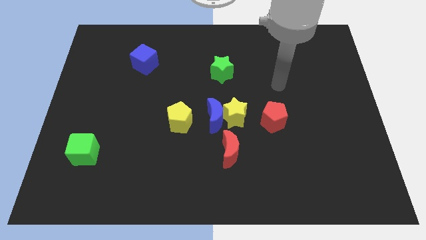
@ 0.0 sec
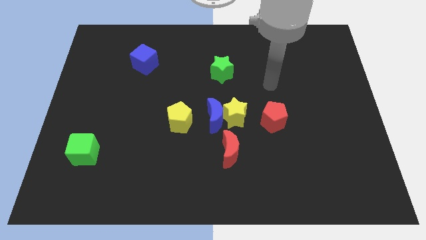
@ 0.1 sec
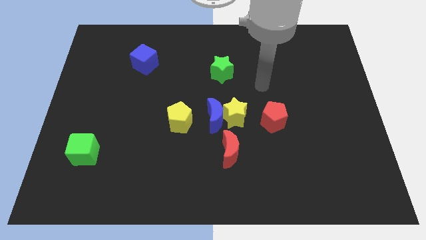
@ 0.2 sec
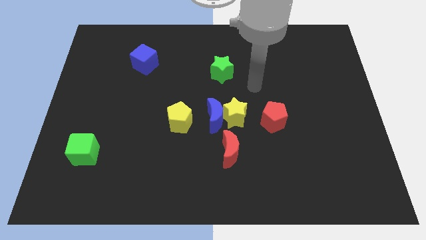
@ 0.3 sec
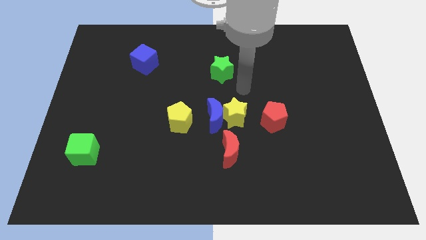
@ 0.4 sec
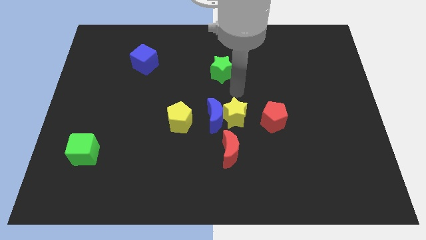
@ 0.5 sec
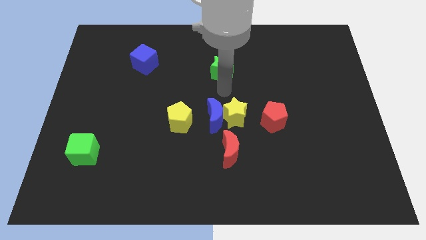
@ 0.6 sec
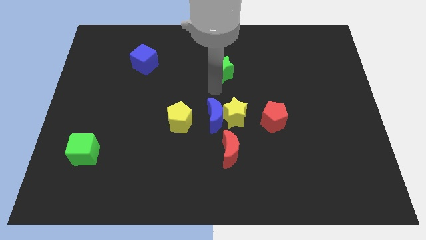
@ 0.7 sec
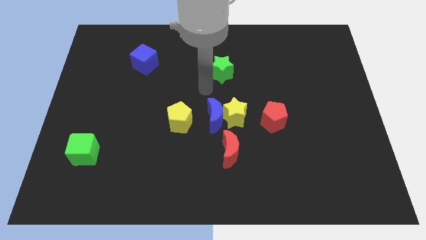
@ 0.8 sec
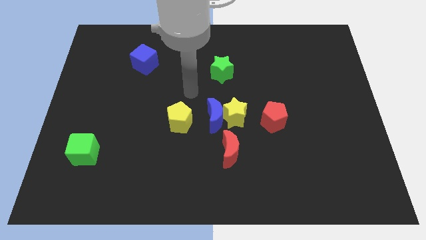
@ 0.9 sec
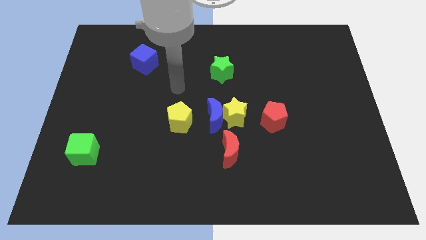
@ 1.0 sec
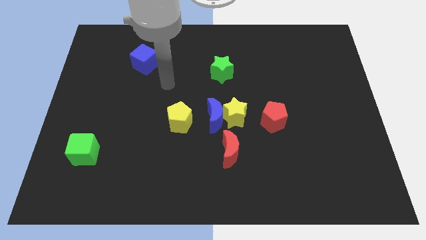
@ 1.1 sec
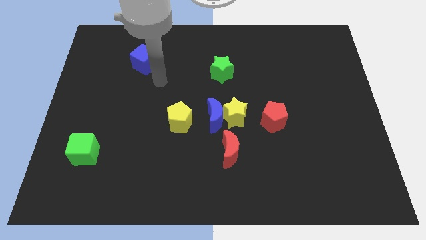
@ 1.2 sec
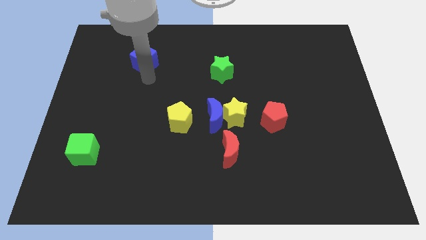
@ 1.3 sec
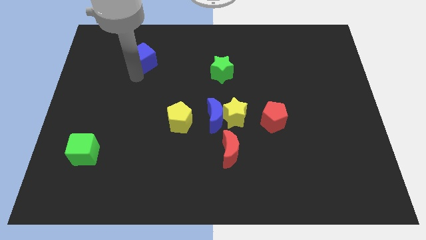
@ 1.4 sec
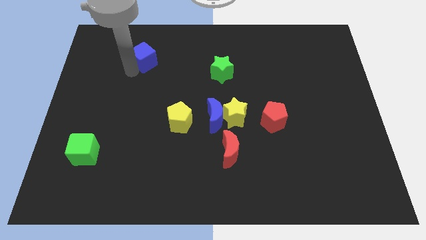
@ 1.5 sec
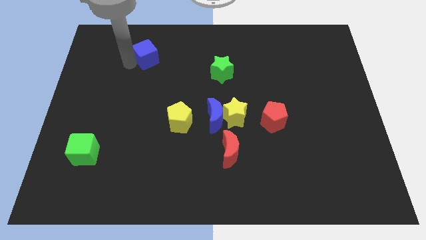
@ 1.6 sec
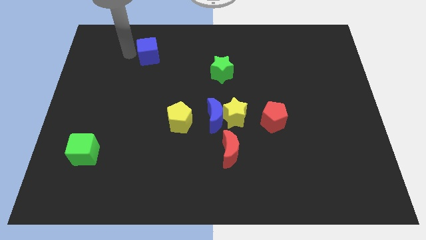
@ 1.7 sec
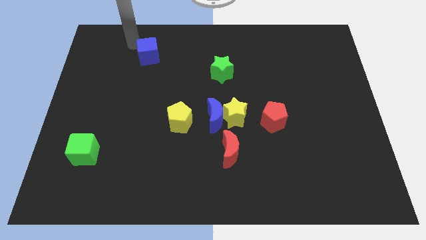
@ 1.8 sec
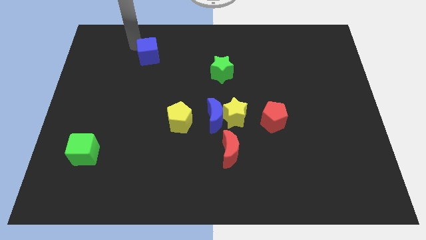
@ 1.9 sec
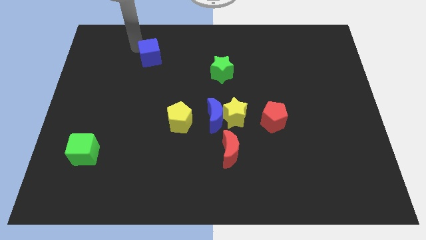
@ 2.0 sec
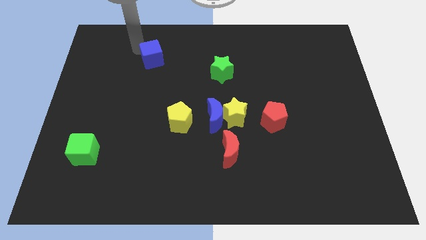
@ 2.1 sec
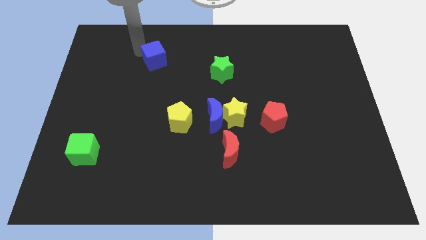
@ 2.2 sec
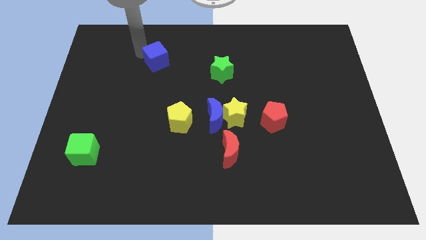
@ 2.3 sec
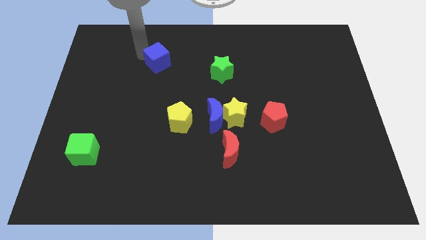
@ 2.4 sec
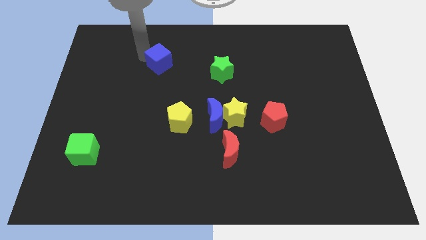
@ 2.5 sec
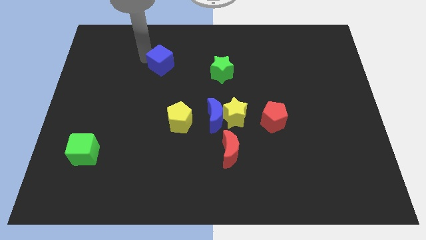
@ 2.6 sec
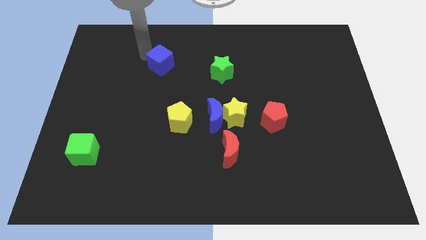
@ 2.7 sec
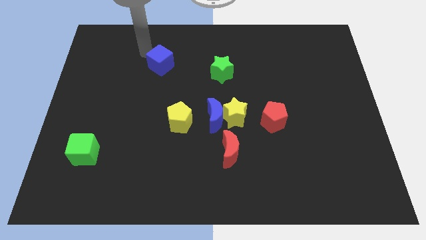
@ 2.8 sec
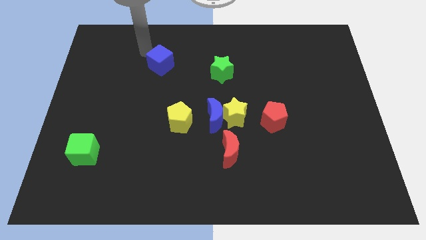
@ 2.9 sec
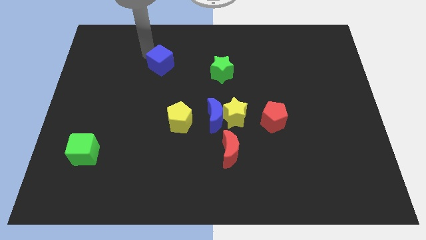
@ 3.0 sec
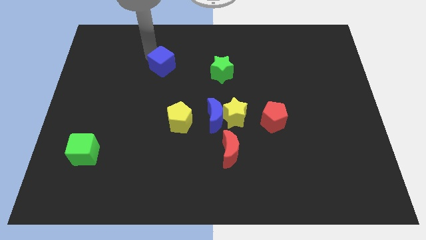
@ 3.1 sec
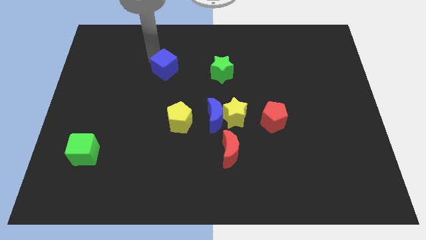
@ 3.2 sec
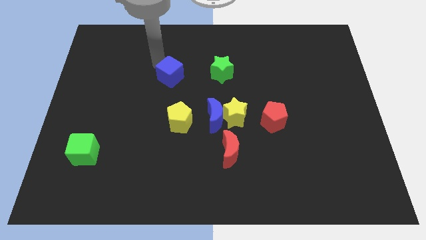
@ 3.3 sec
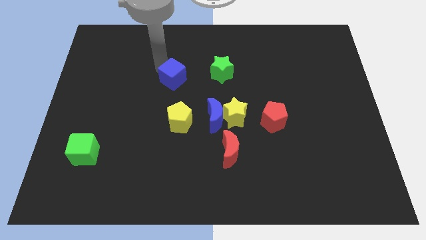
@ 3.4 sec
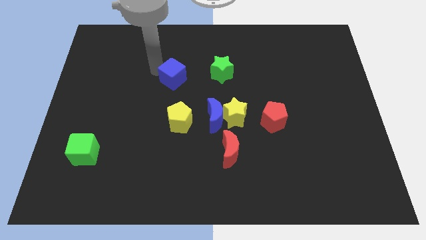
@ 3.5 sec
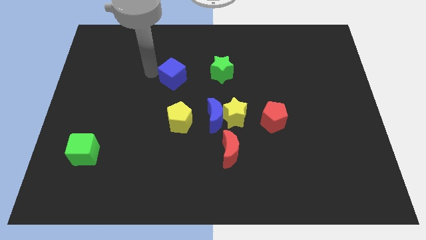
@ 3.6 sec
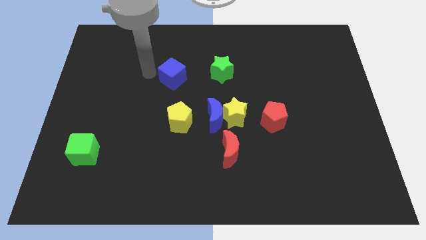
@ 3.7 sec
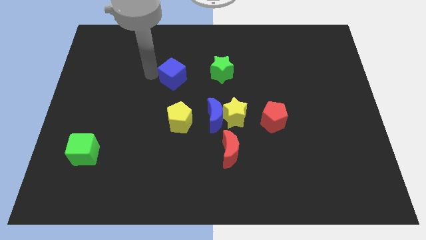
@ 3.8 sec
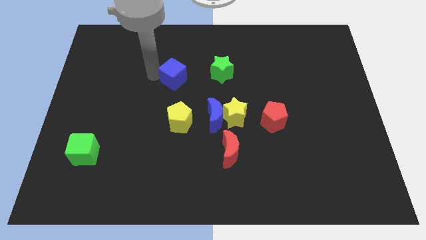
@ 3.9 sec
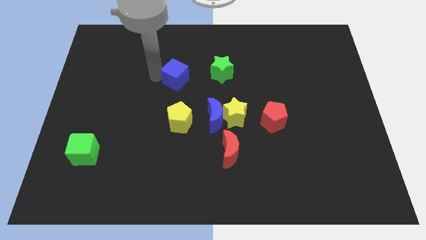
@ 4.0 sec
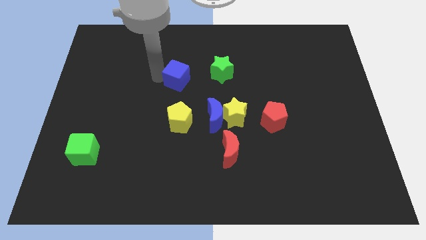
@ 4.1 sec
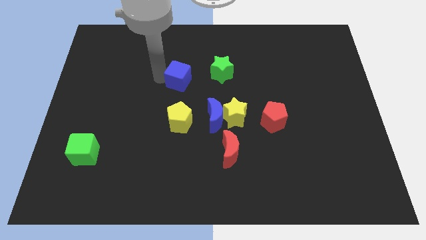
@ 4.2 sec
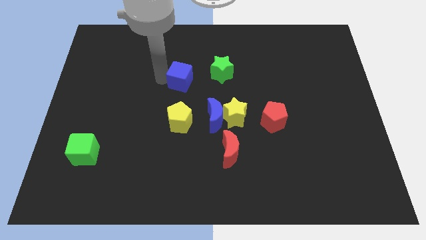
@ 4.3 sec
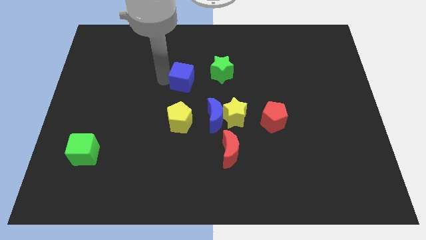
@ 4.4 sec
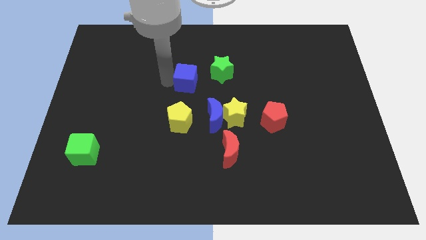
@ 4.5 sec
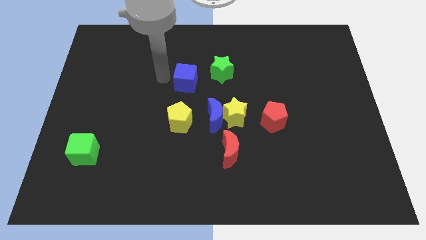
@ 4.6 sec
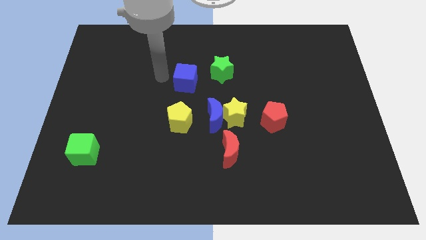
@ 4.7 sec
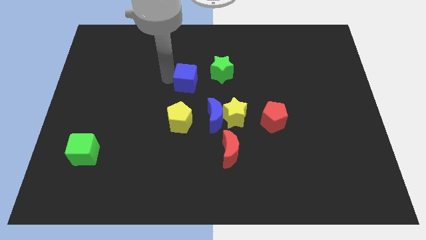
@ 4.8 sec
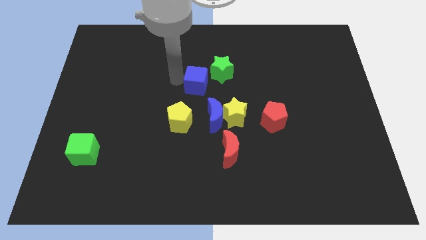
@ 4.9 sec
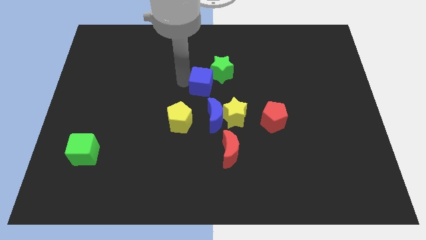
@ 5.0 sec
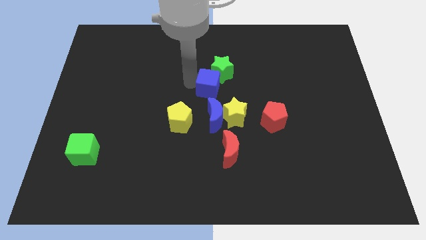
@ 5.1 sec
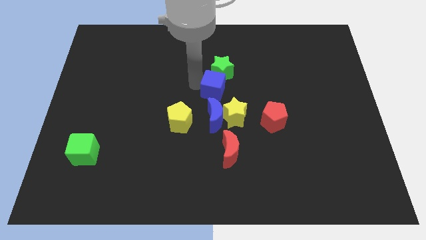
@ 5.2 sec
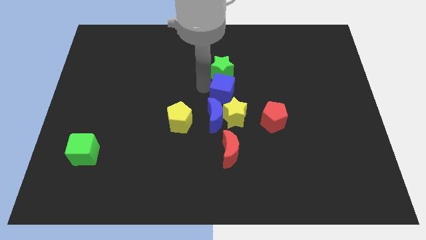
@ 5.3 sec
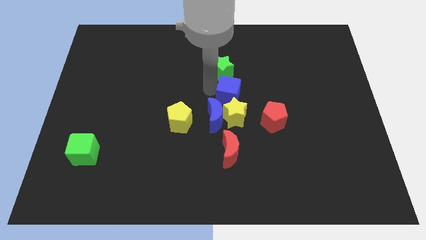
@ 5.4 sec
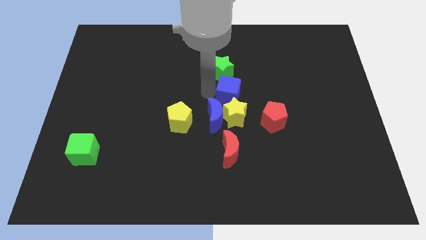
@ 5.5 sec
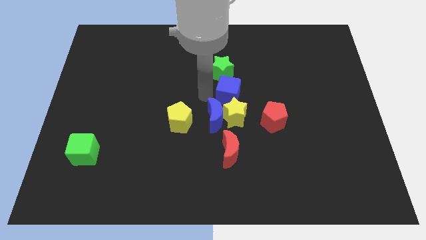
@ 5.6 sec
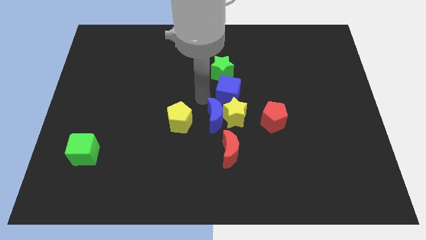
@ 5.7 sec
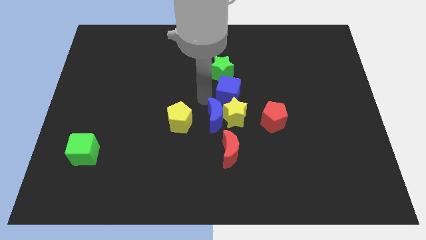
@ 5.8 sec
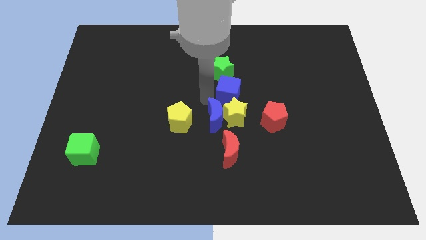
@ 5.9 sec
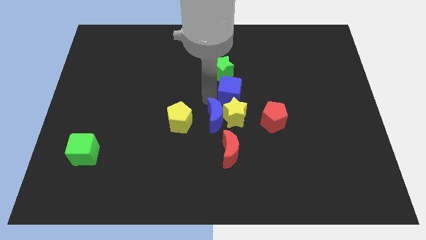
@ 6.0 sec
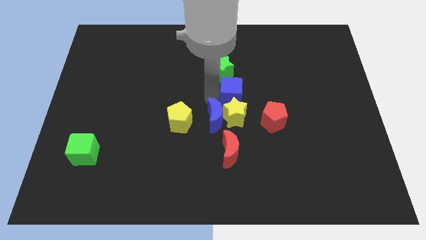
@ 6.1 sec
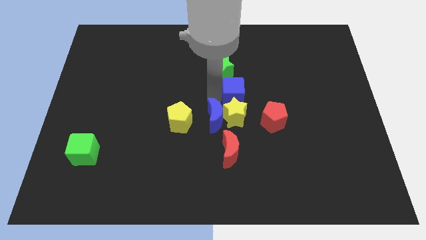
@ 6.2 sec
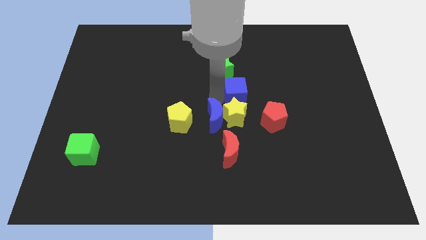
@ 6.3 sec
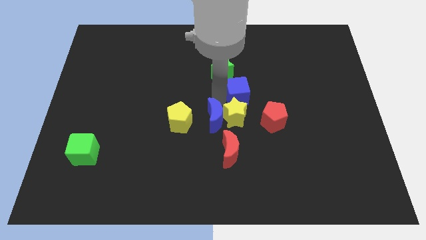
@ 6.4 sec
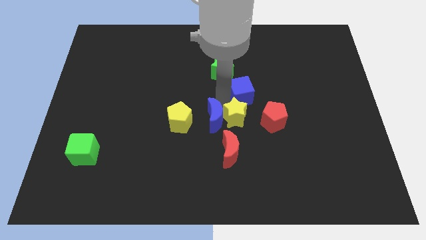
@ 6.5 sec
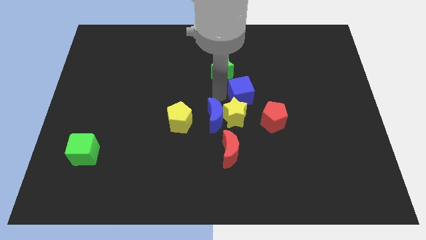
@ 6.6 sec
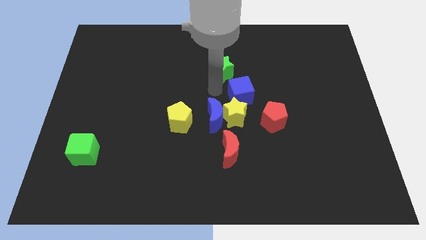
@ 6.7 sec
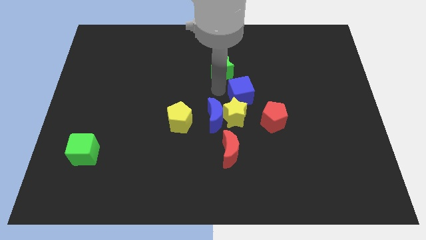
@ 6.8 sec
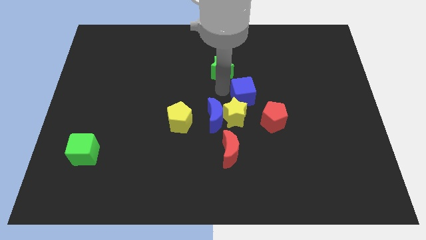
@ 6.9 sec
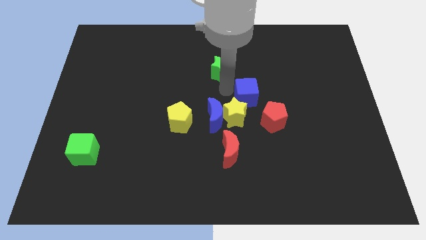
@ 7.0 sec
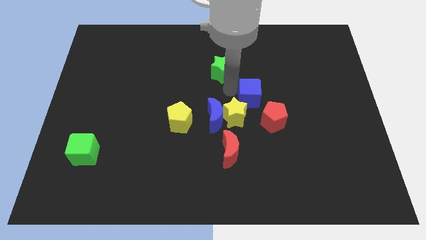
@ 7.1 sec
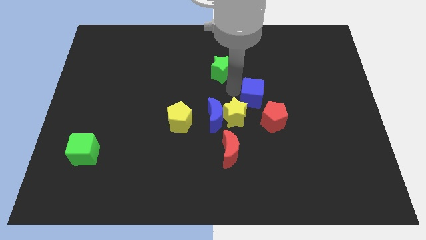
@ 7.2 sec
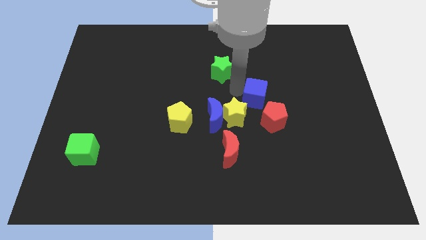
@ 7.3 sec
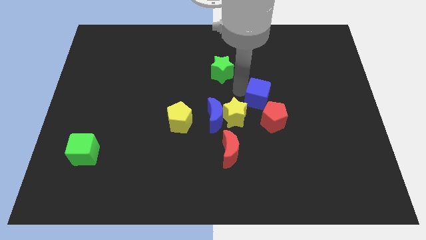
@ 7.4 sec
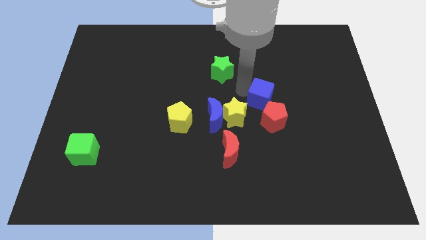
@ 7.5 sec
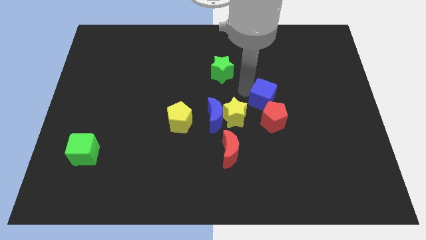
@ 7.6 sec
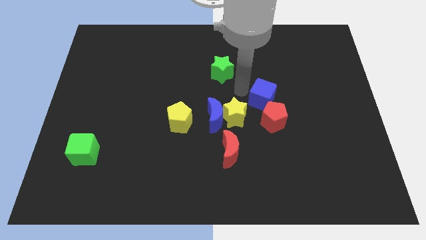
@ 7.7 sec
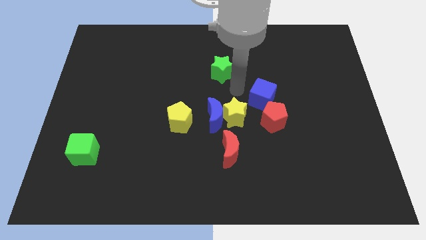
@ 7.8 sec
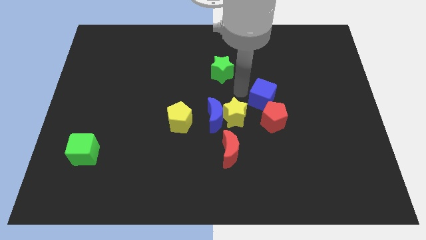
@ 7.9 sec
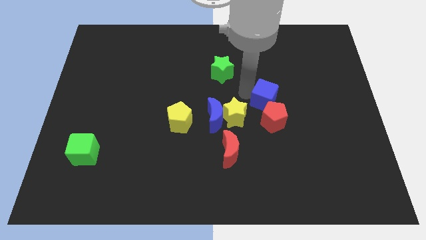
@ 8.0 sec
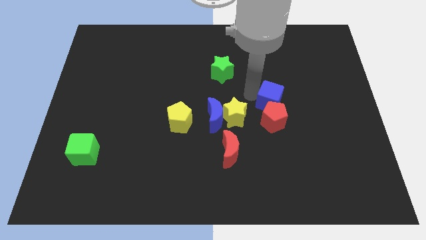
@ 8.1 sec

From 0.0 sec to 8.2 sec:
move the blue cube to the right side of the yellow star
